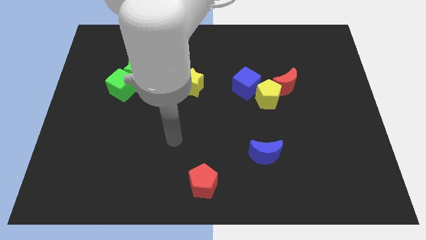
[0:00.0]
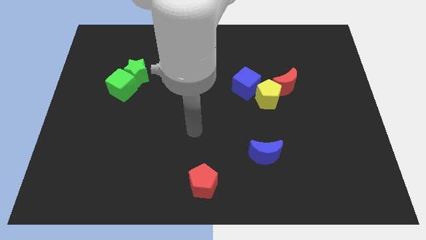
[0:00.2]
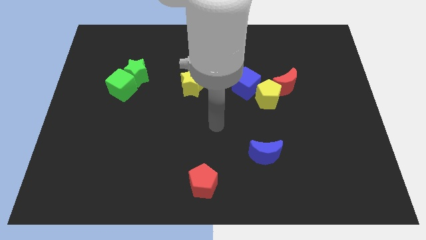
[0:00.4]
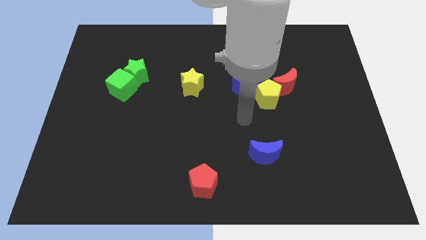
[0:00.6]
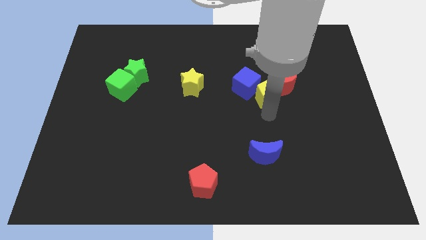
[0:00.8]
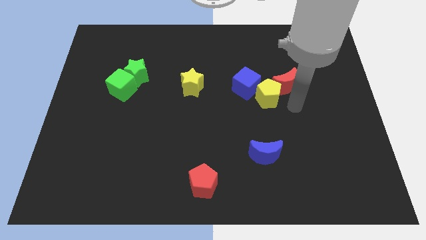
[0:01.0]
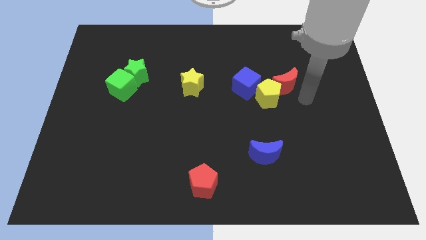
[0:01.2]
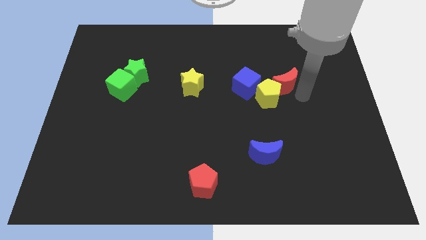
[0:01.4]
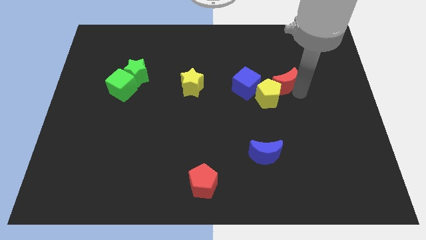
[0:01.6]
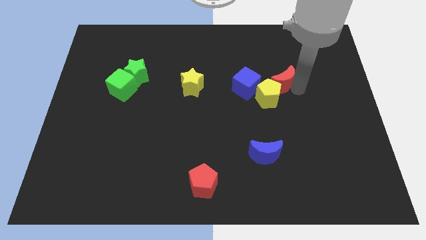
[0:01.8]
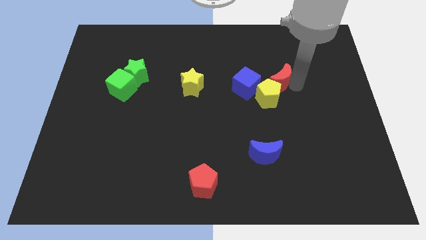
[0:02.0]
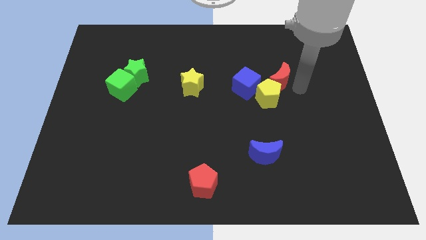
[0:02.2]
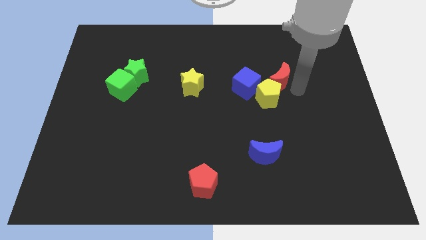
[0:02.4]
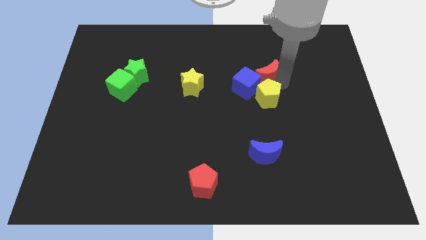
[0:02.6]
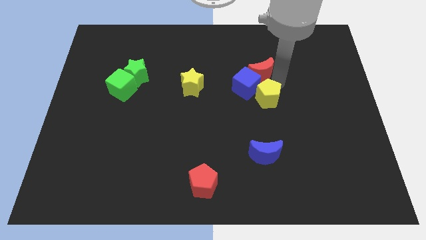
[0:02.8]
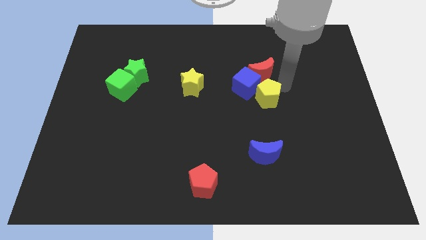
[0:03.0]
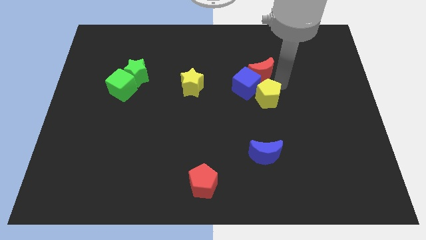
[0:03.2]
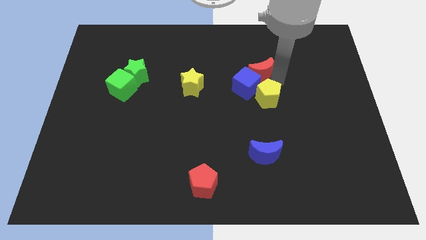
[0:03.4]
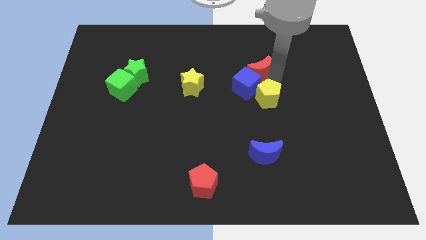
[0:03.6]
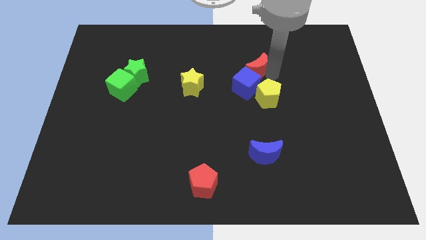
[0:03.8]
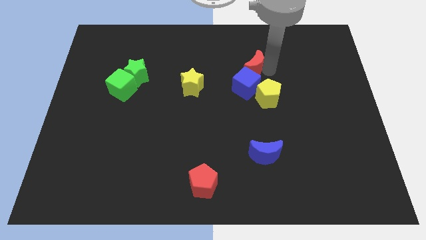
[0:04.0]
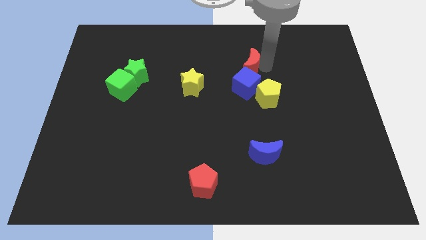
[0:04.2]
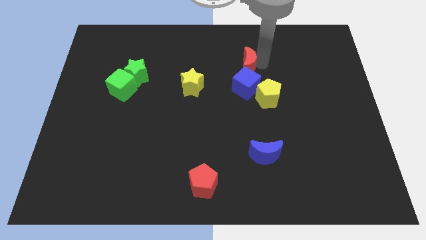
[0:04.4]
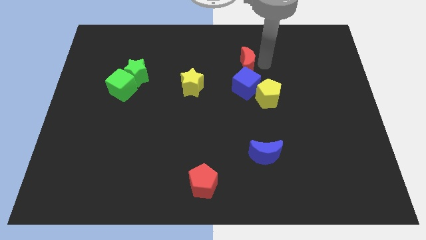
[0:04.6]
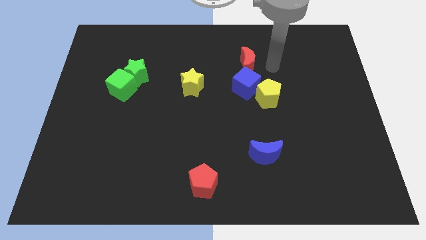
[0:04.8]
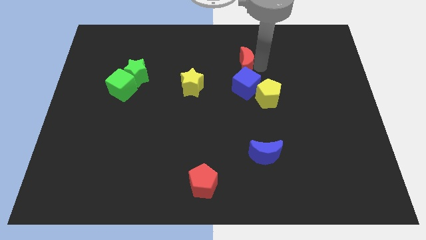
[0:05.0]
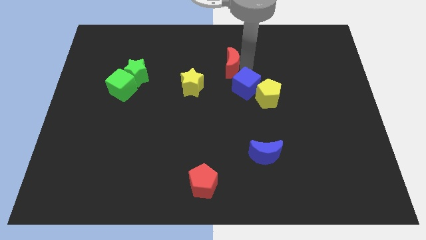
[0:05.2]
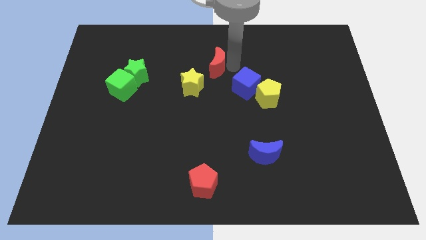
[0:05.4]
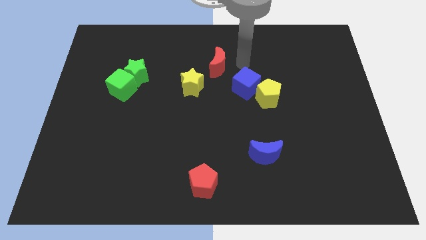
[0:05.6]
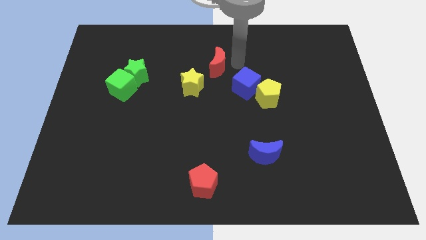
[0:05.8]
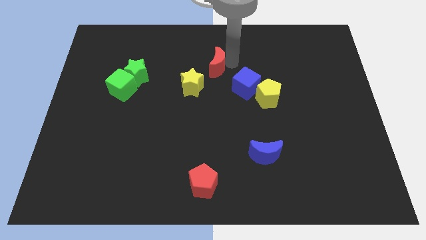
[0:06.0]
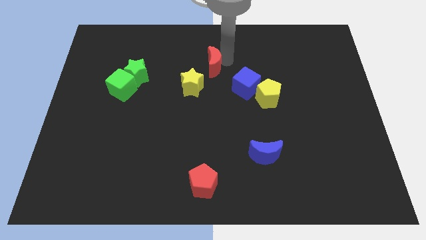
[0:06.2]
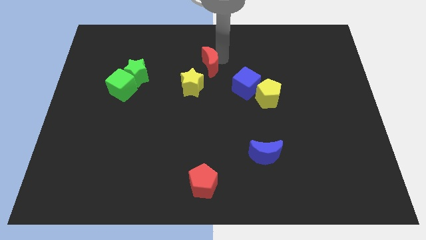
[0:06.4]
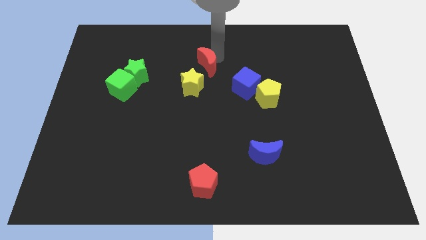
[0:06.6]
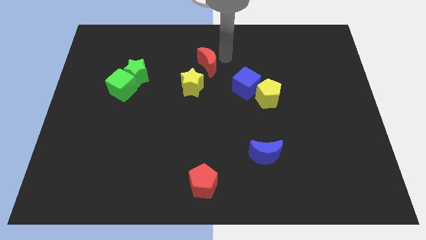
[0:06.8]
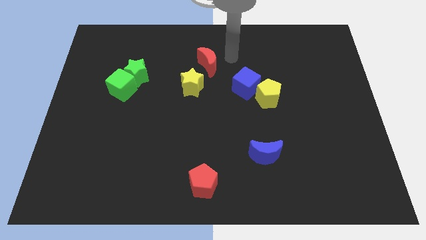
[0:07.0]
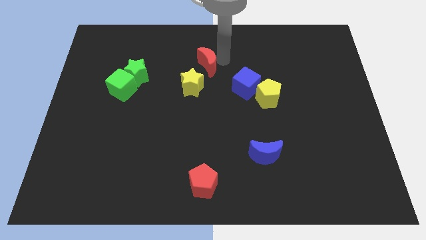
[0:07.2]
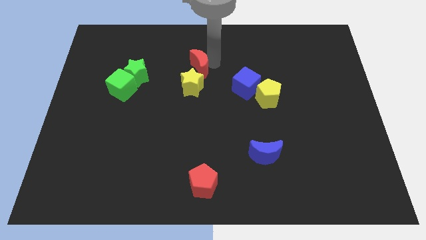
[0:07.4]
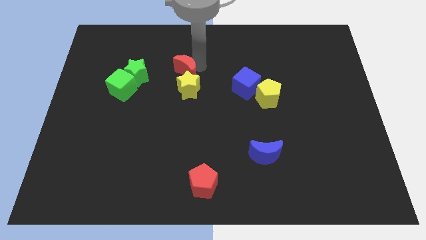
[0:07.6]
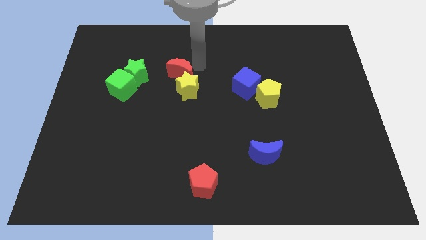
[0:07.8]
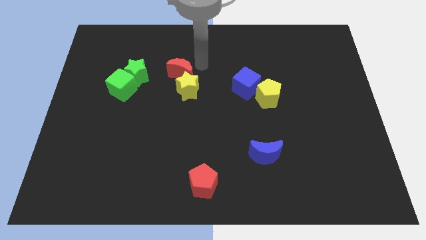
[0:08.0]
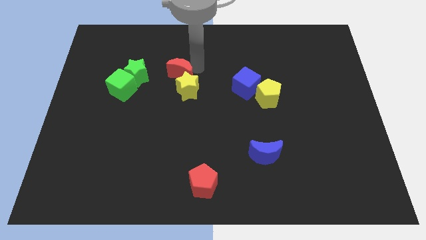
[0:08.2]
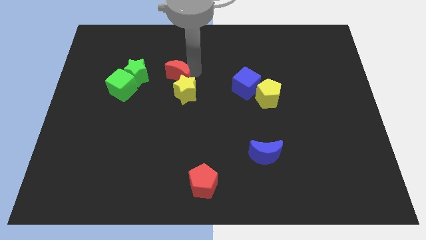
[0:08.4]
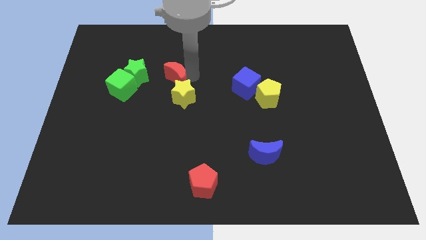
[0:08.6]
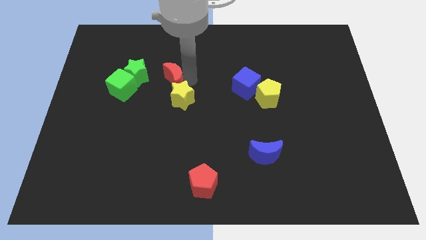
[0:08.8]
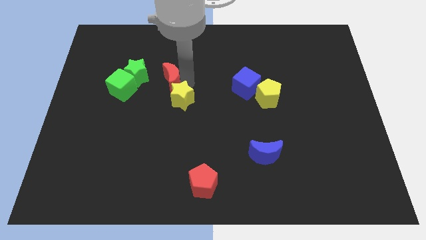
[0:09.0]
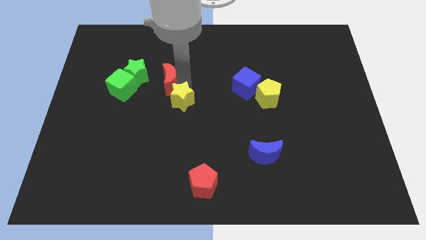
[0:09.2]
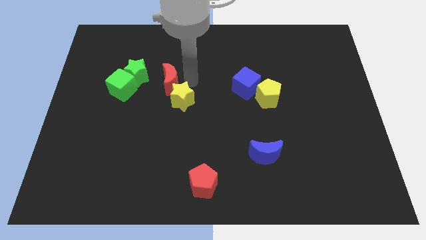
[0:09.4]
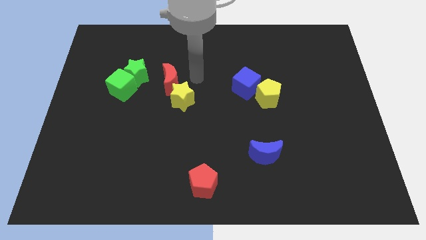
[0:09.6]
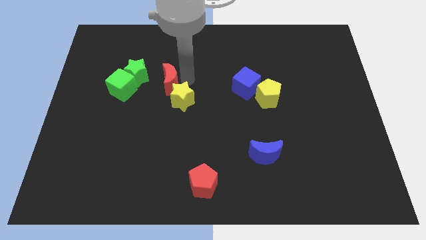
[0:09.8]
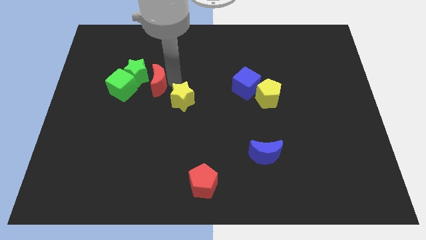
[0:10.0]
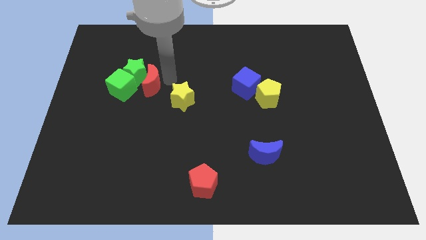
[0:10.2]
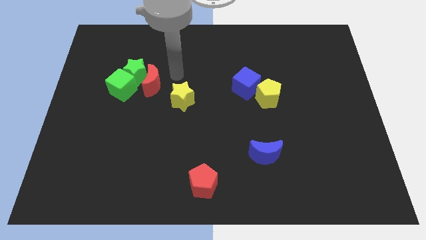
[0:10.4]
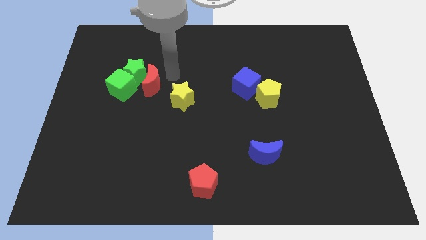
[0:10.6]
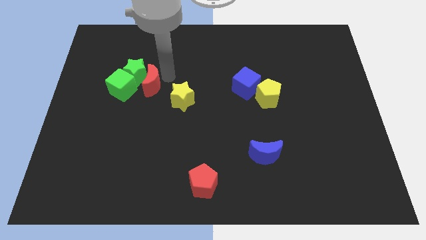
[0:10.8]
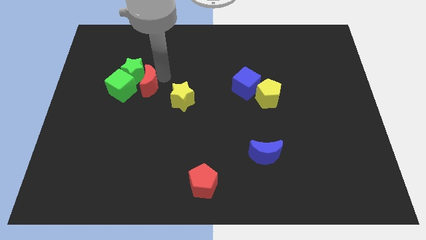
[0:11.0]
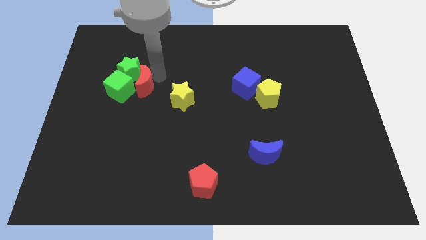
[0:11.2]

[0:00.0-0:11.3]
push the red moon next to the green cube

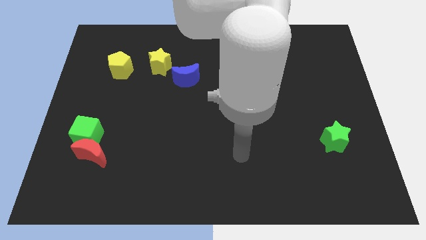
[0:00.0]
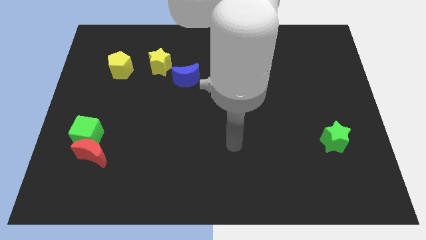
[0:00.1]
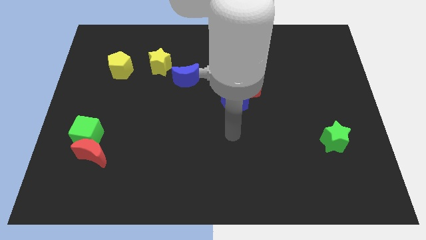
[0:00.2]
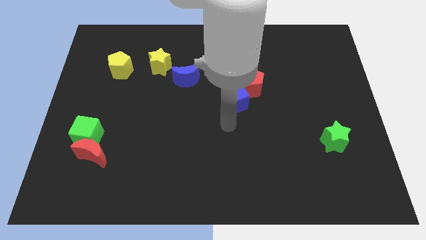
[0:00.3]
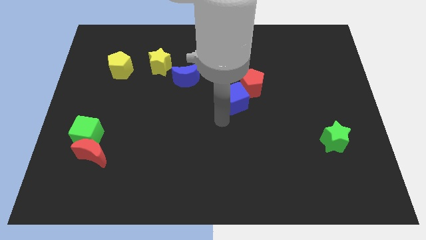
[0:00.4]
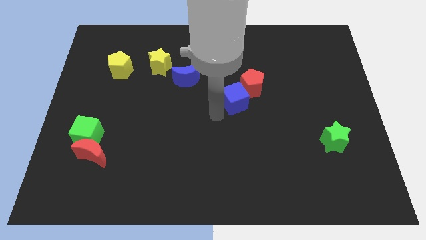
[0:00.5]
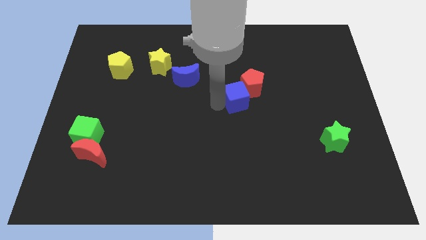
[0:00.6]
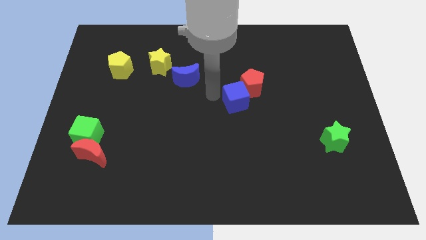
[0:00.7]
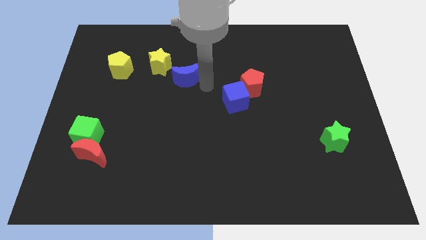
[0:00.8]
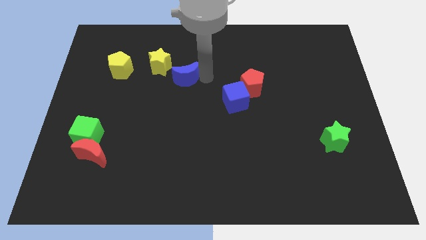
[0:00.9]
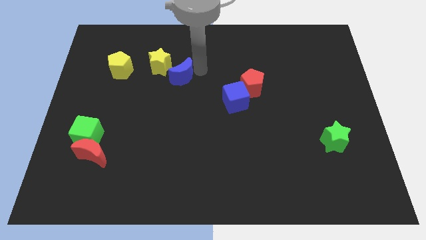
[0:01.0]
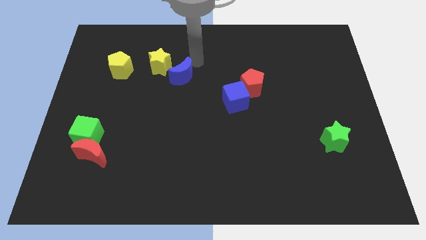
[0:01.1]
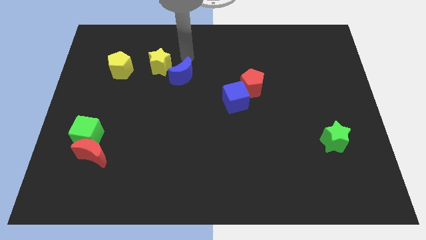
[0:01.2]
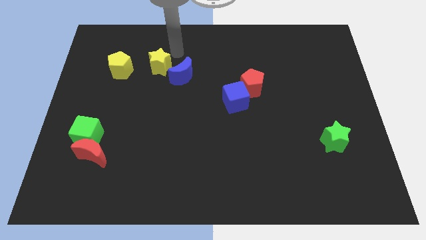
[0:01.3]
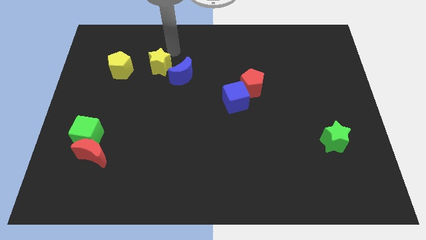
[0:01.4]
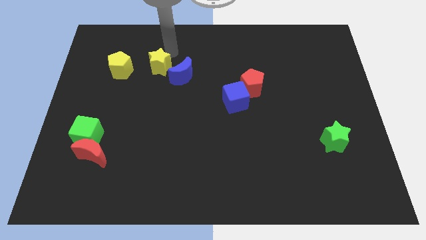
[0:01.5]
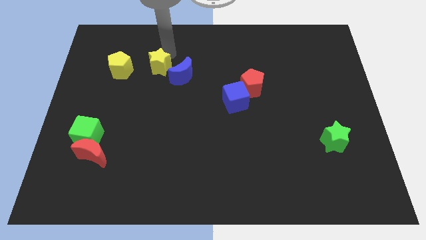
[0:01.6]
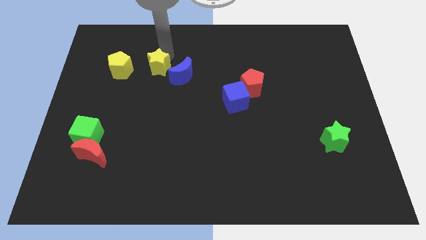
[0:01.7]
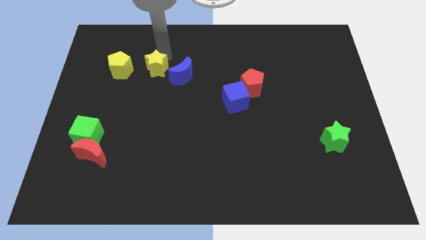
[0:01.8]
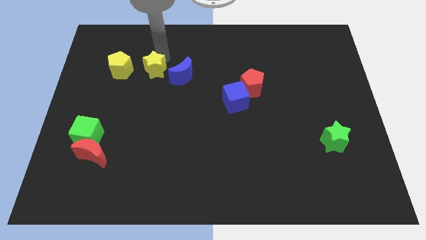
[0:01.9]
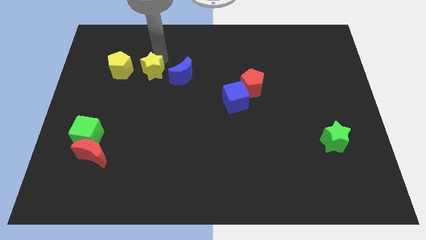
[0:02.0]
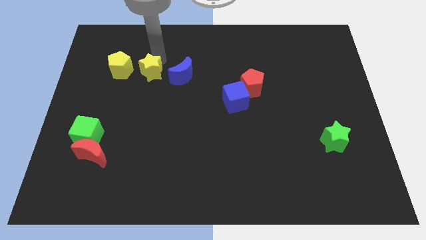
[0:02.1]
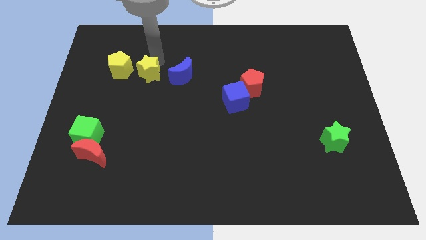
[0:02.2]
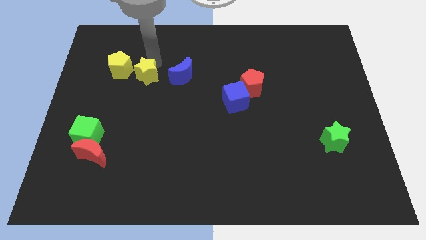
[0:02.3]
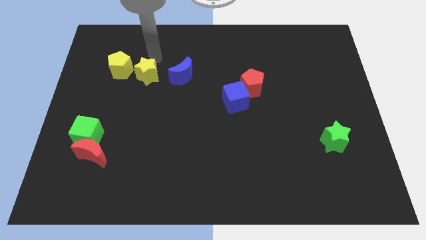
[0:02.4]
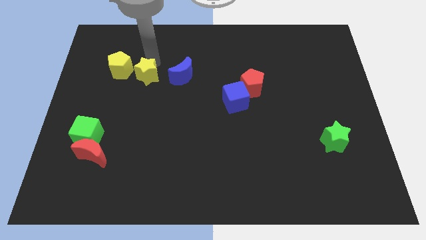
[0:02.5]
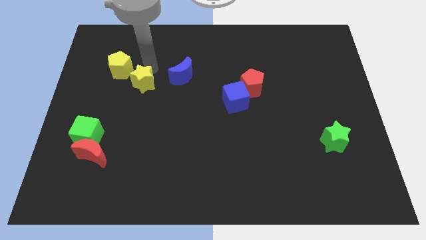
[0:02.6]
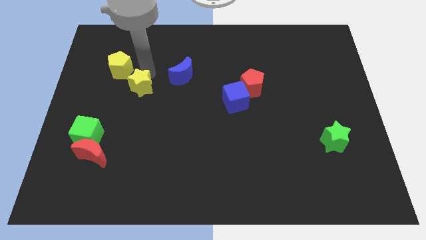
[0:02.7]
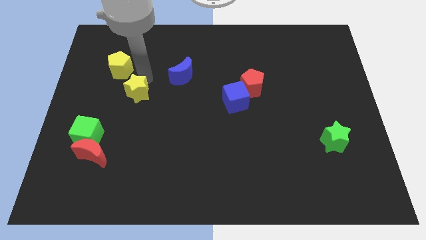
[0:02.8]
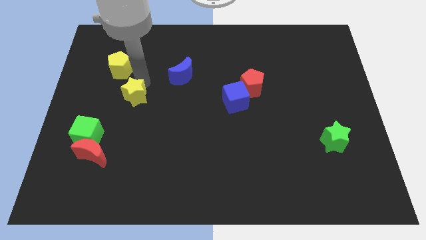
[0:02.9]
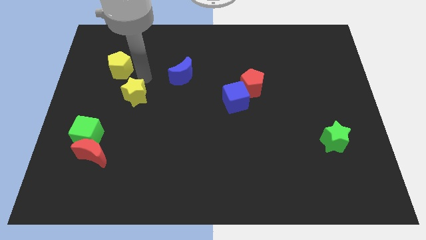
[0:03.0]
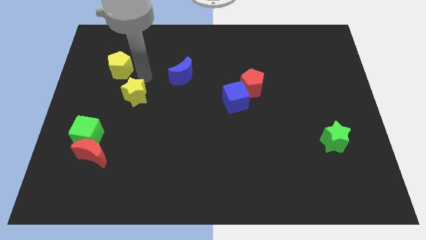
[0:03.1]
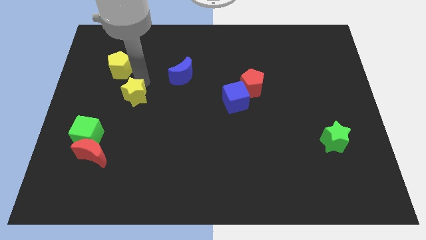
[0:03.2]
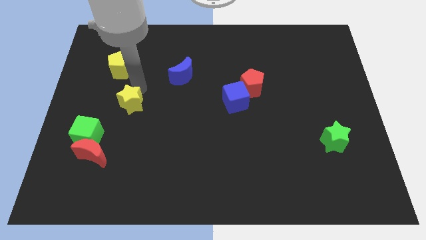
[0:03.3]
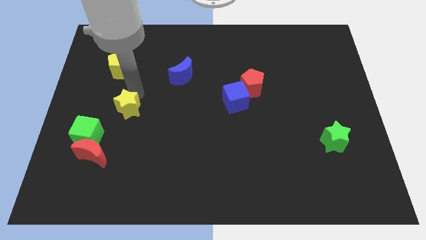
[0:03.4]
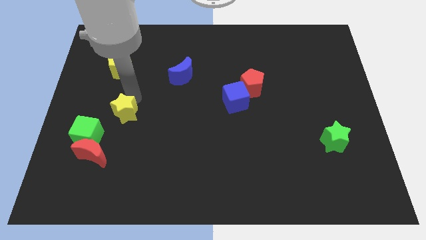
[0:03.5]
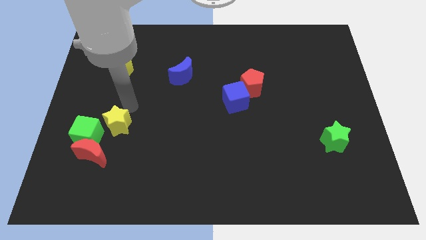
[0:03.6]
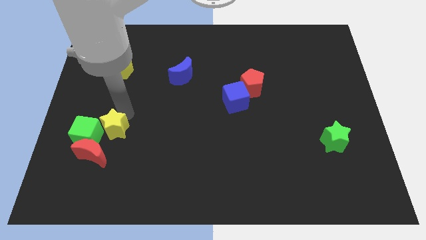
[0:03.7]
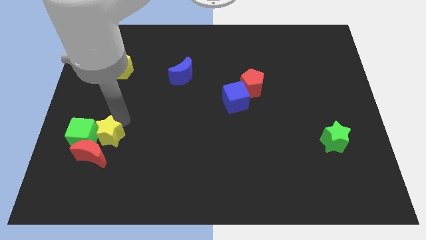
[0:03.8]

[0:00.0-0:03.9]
slide the yellow star next to the red moon
